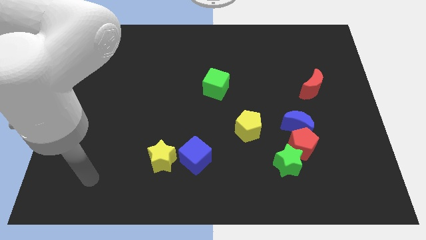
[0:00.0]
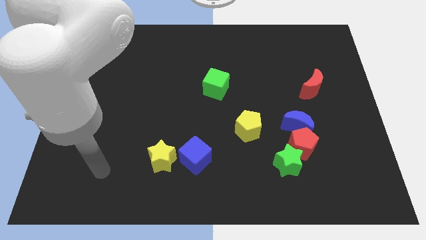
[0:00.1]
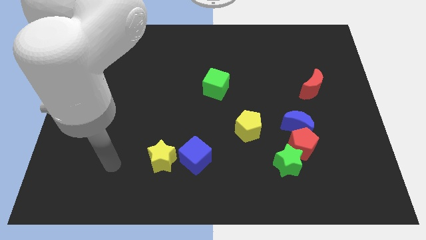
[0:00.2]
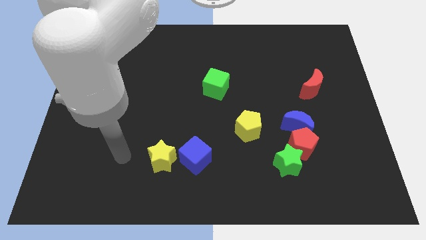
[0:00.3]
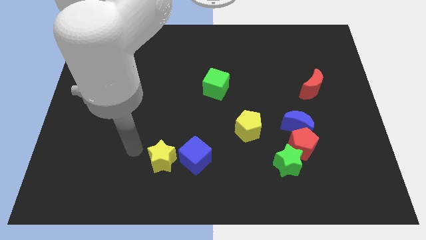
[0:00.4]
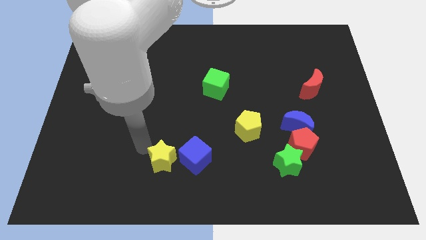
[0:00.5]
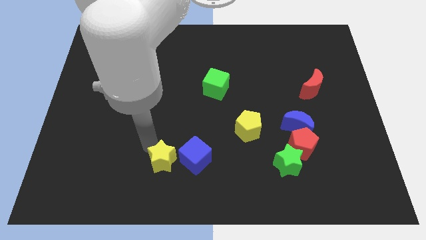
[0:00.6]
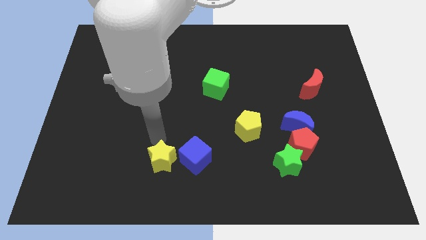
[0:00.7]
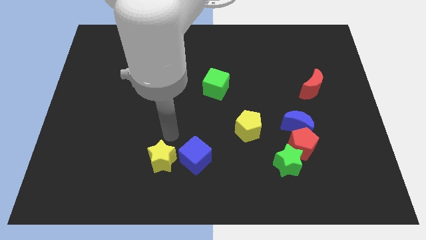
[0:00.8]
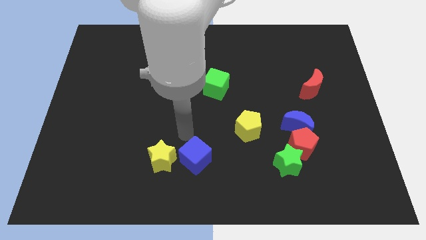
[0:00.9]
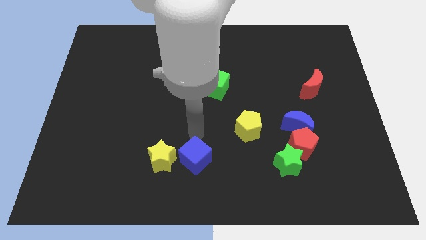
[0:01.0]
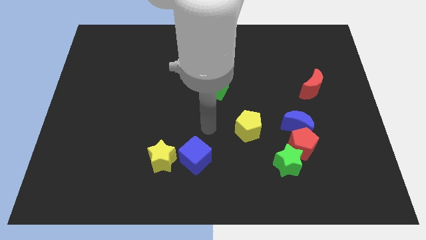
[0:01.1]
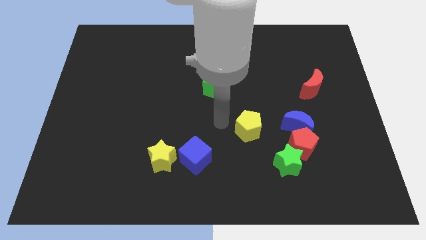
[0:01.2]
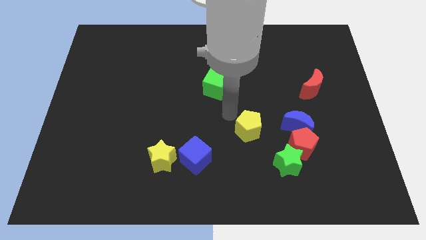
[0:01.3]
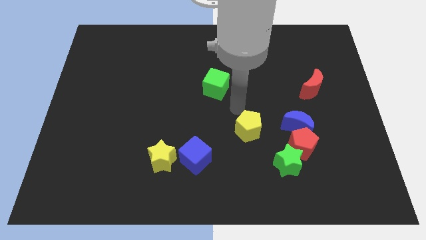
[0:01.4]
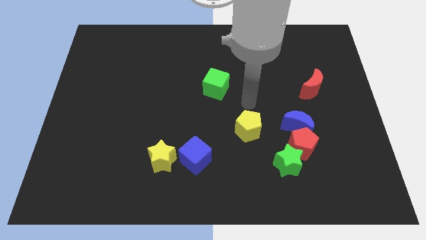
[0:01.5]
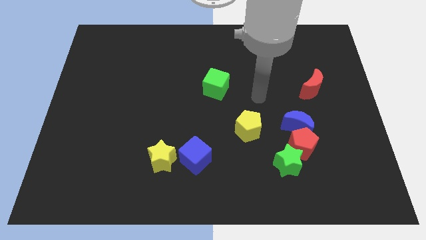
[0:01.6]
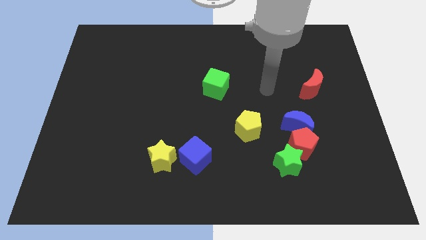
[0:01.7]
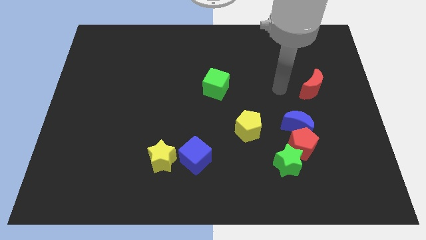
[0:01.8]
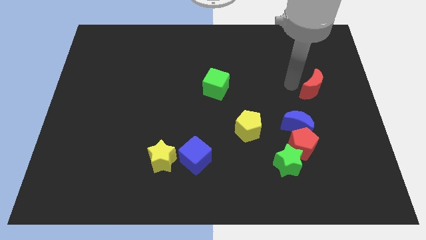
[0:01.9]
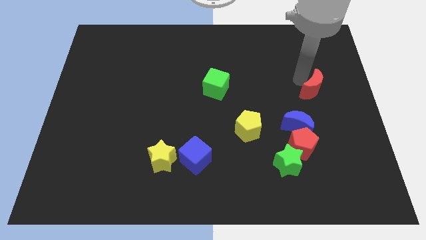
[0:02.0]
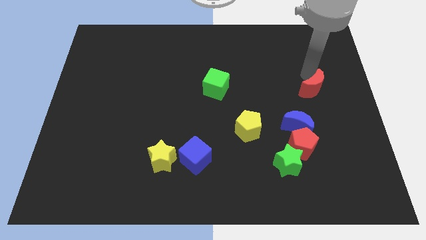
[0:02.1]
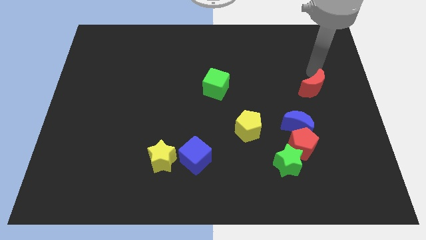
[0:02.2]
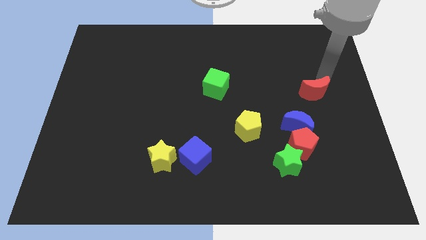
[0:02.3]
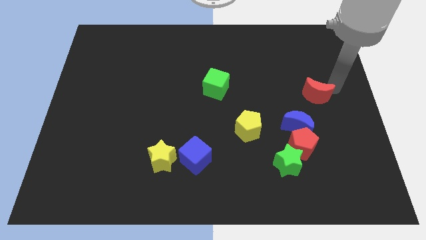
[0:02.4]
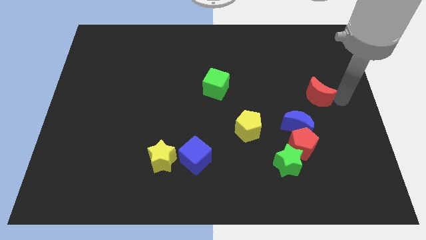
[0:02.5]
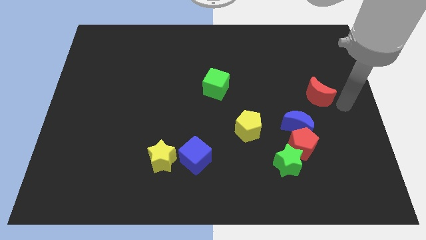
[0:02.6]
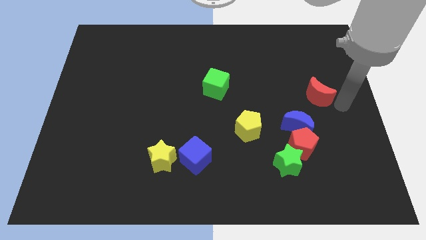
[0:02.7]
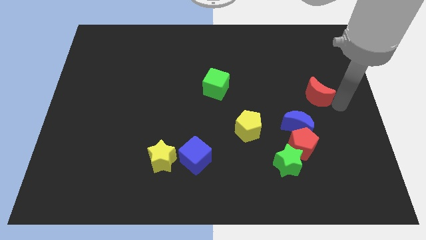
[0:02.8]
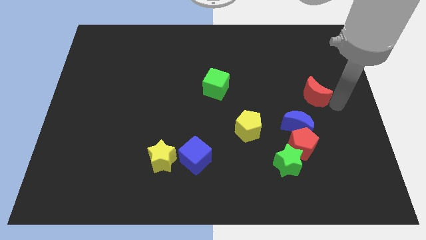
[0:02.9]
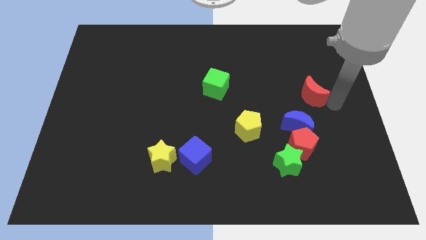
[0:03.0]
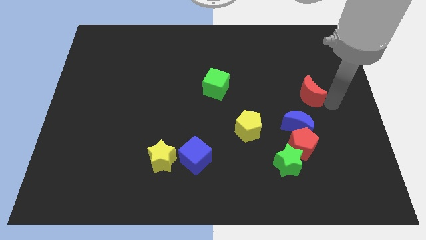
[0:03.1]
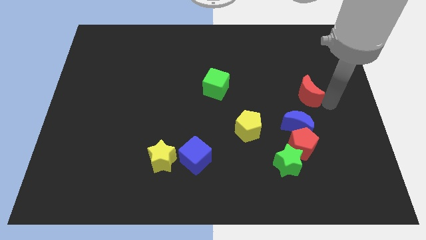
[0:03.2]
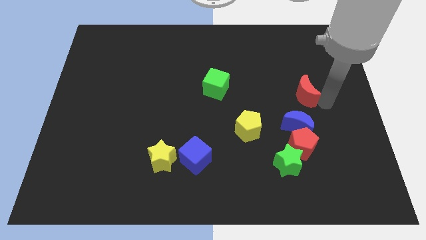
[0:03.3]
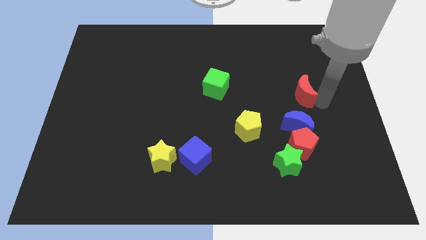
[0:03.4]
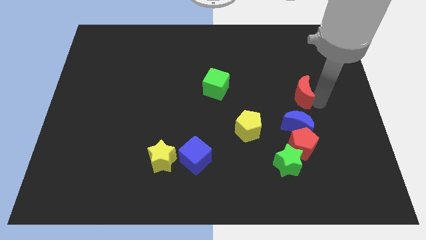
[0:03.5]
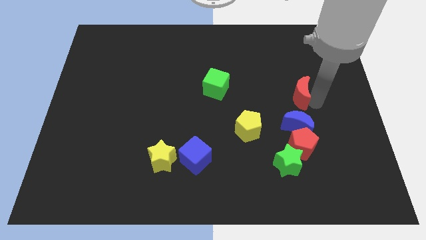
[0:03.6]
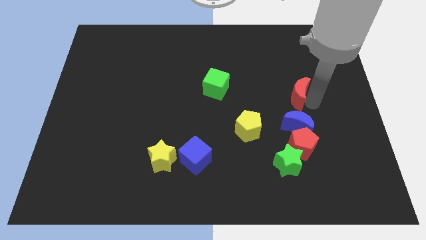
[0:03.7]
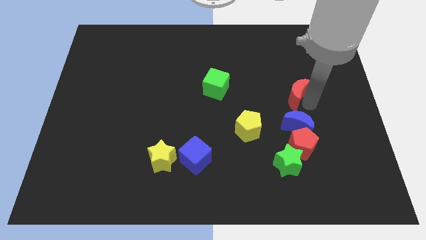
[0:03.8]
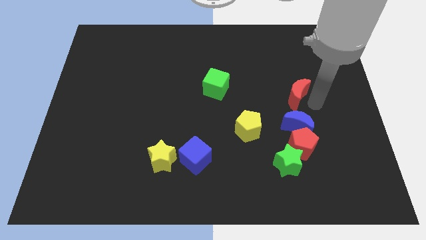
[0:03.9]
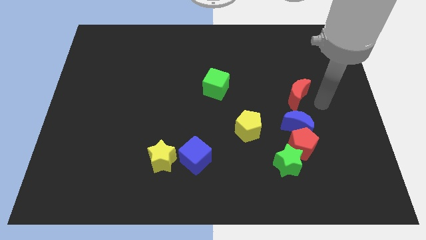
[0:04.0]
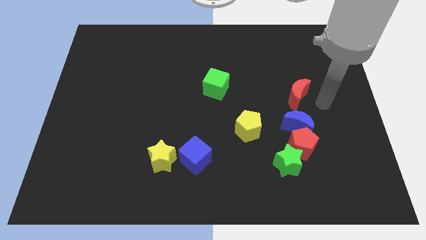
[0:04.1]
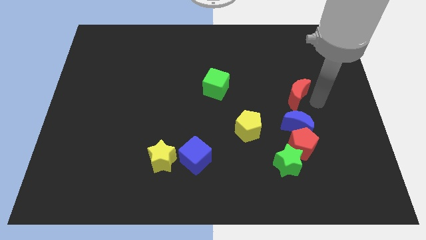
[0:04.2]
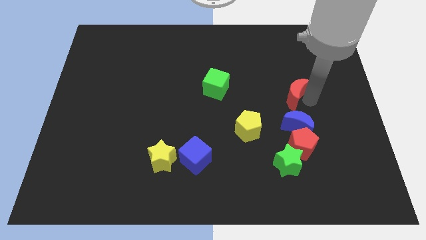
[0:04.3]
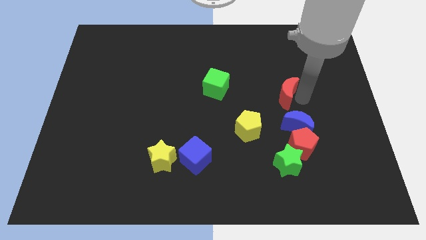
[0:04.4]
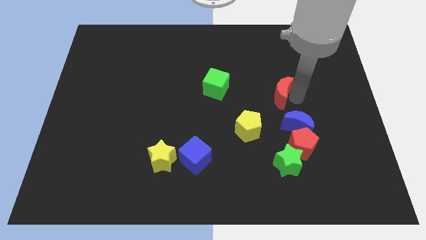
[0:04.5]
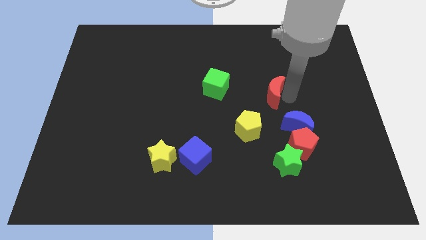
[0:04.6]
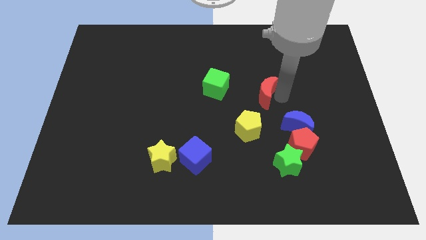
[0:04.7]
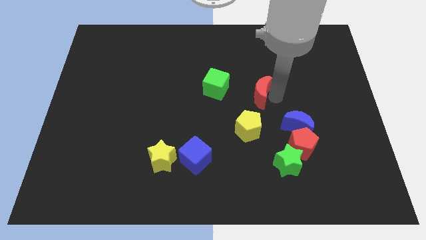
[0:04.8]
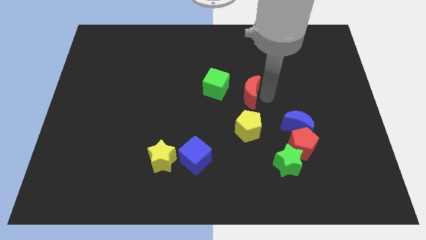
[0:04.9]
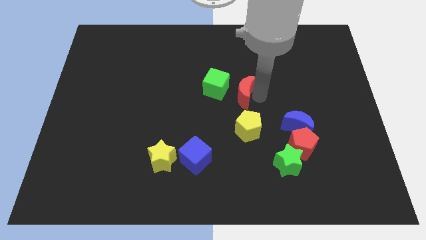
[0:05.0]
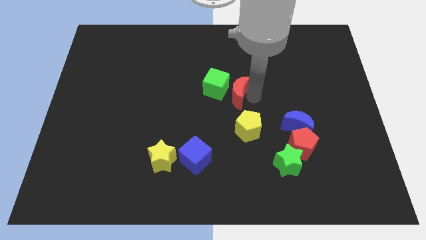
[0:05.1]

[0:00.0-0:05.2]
move the red moon towards the green cube

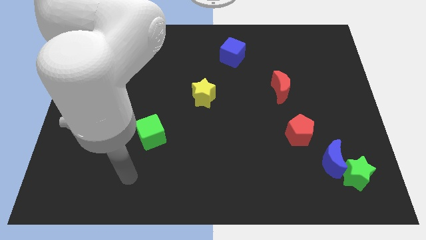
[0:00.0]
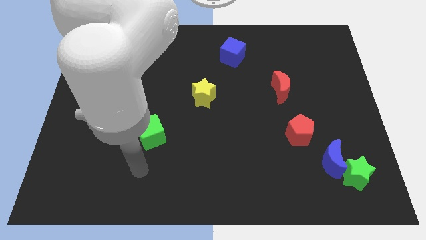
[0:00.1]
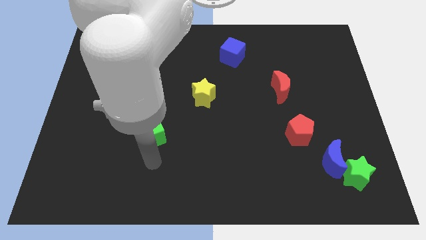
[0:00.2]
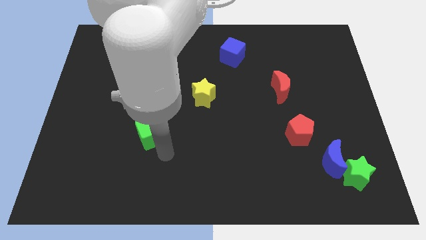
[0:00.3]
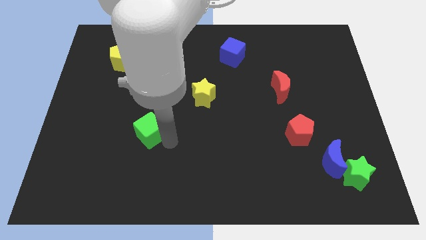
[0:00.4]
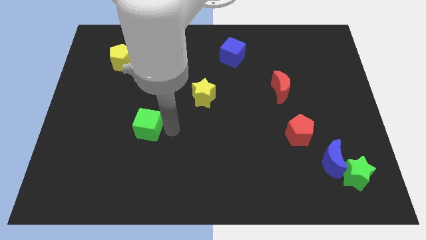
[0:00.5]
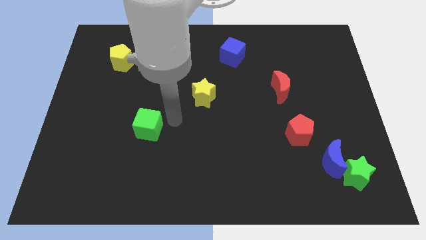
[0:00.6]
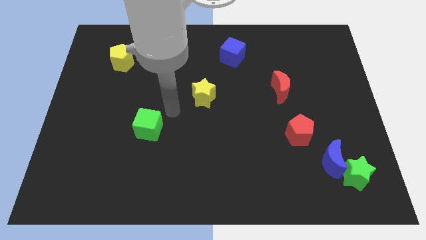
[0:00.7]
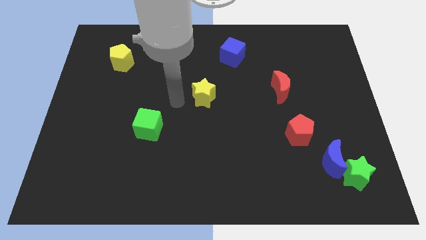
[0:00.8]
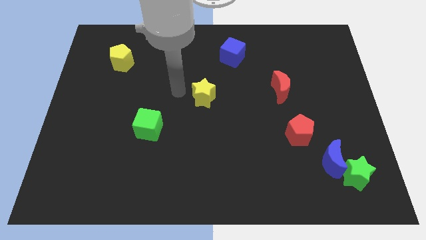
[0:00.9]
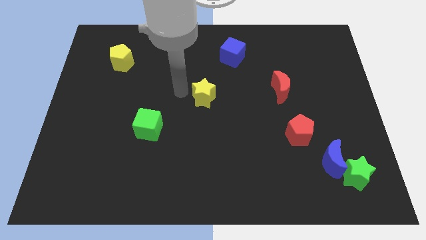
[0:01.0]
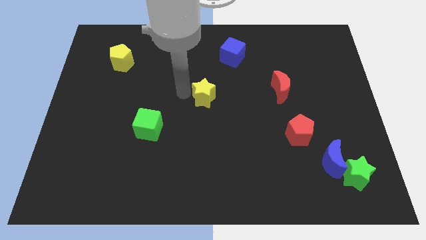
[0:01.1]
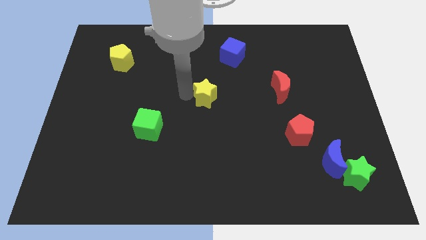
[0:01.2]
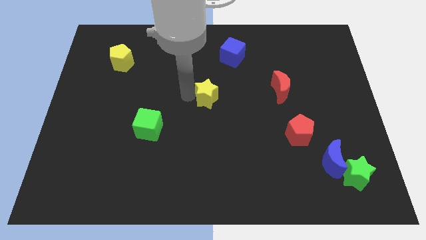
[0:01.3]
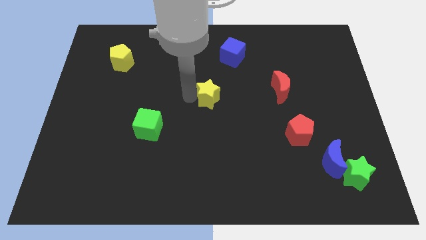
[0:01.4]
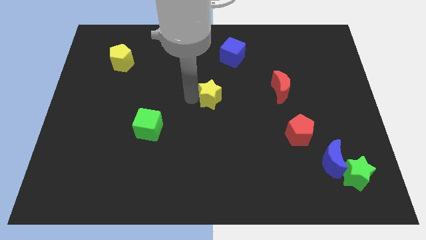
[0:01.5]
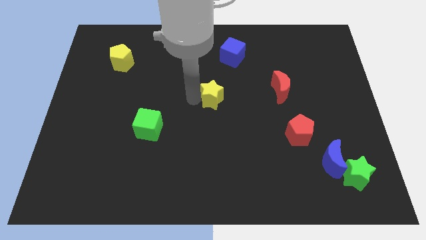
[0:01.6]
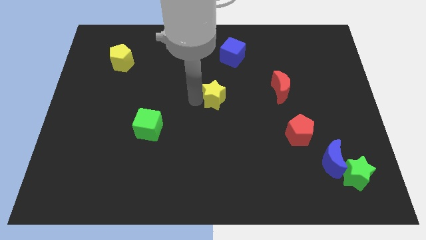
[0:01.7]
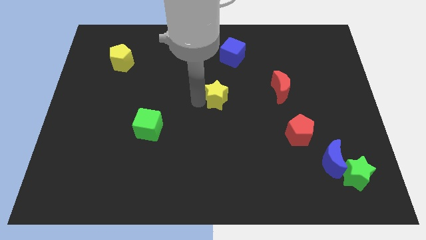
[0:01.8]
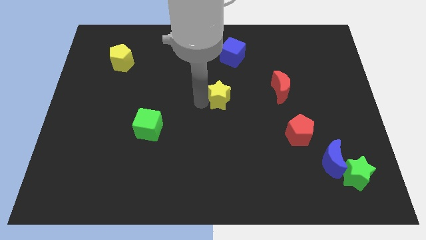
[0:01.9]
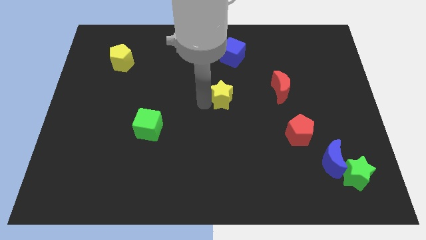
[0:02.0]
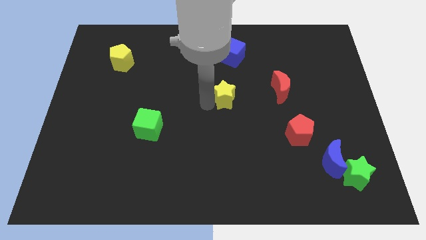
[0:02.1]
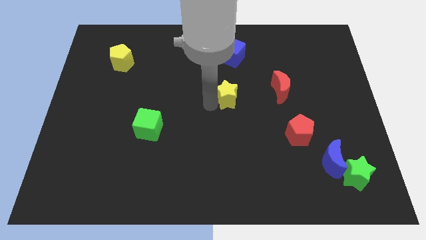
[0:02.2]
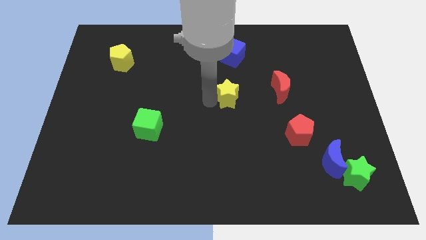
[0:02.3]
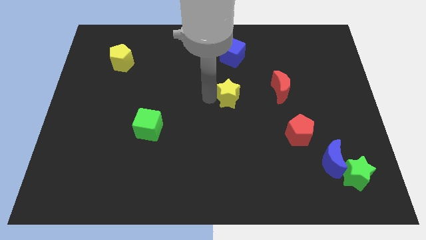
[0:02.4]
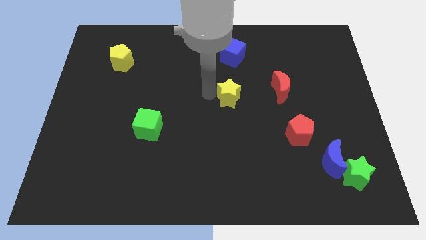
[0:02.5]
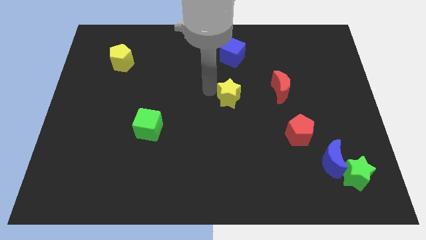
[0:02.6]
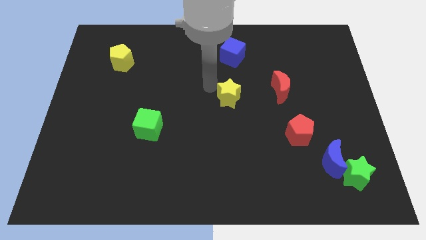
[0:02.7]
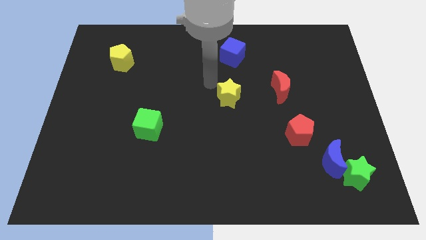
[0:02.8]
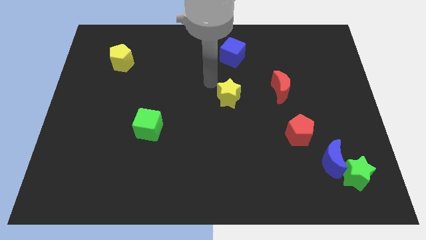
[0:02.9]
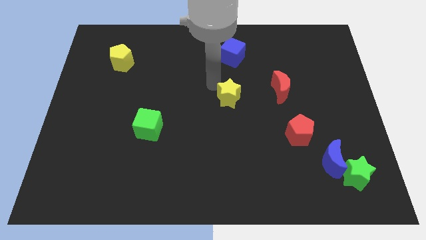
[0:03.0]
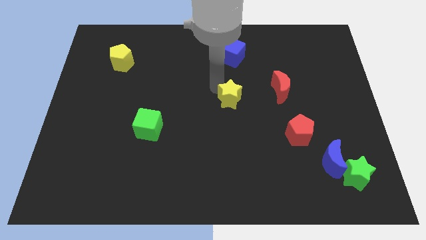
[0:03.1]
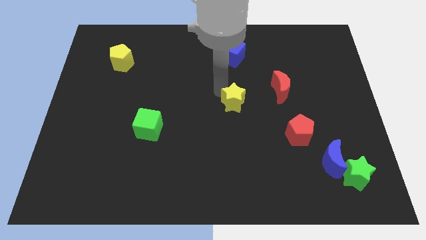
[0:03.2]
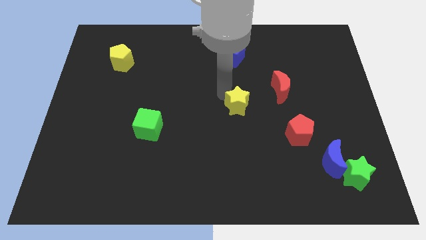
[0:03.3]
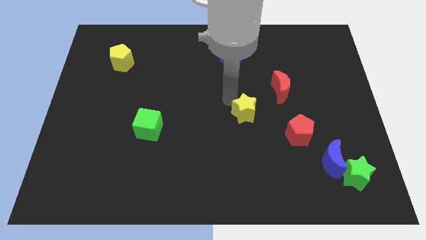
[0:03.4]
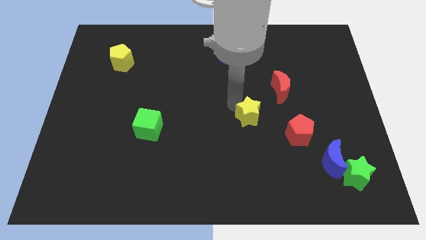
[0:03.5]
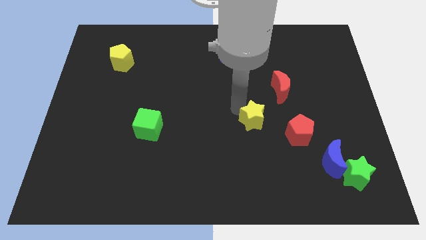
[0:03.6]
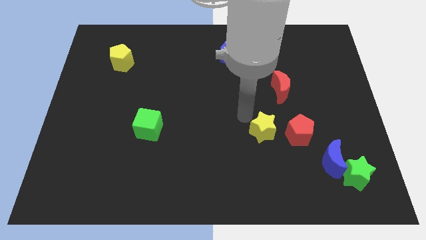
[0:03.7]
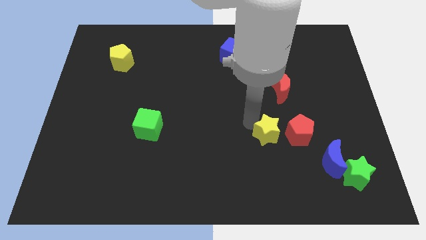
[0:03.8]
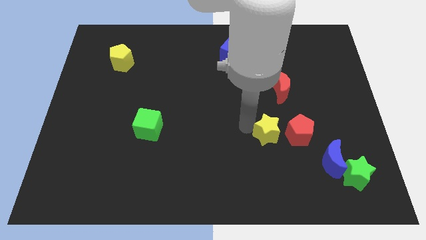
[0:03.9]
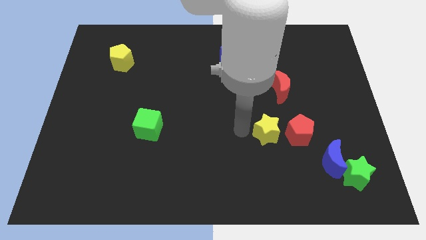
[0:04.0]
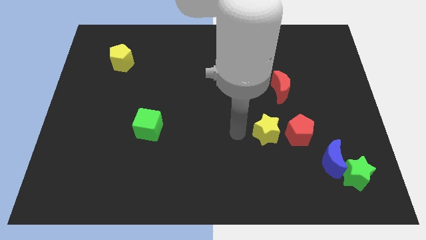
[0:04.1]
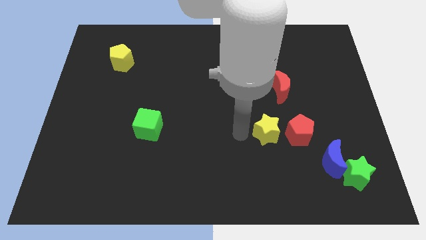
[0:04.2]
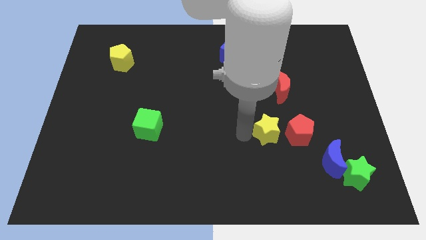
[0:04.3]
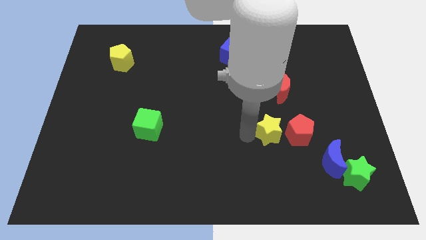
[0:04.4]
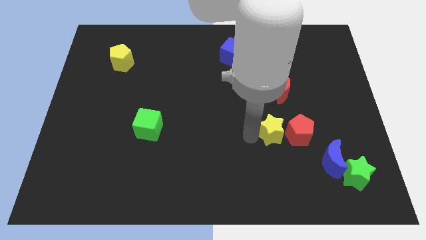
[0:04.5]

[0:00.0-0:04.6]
slide the yellow star towards the red pentagon
